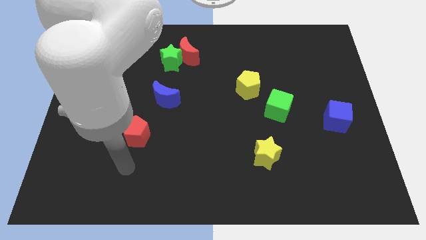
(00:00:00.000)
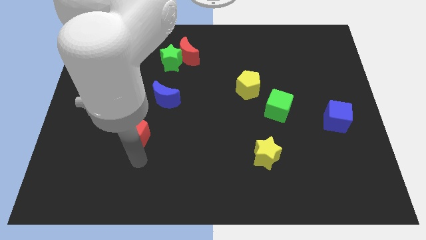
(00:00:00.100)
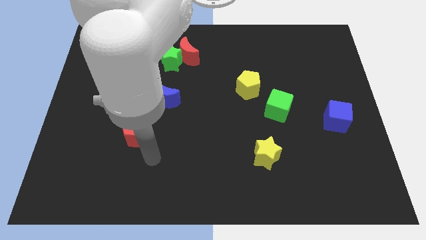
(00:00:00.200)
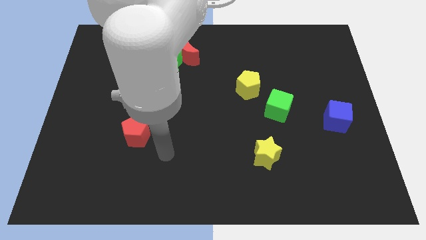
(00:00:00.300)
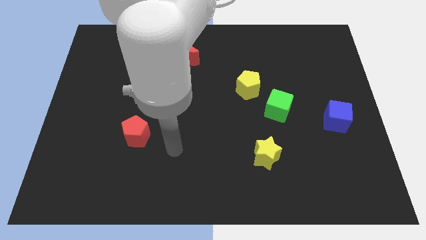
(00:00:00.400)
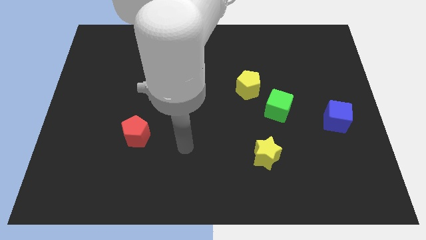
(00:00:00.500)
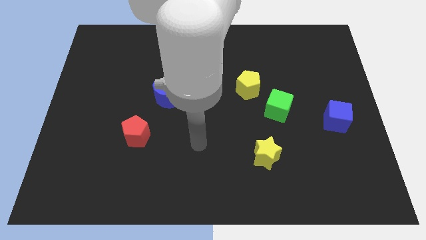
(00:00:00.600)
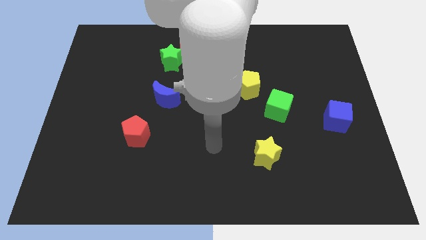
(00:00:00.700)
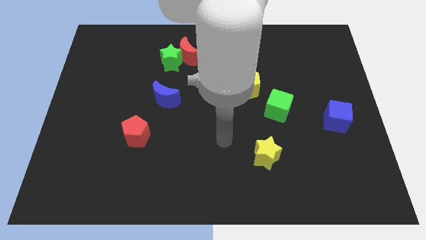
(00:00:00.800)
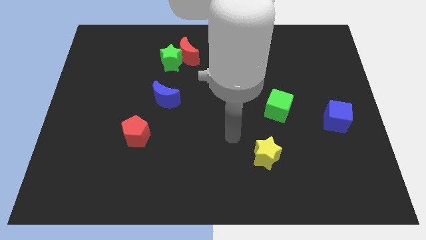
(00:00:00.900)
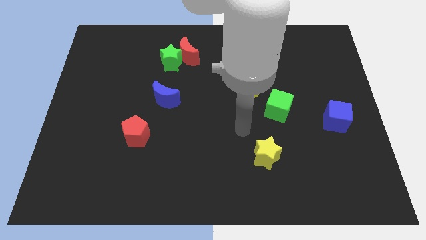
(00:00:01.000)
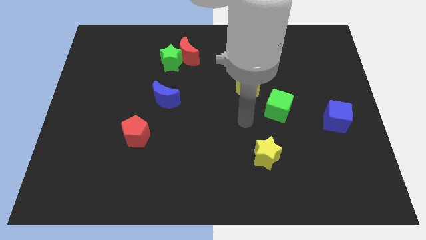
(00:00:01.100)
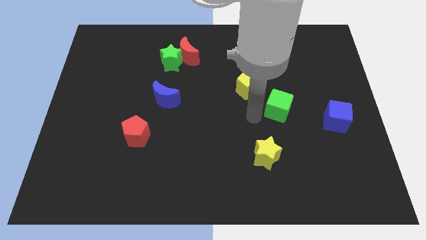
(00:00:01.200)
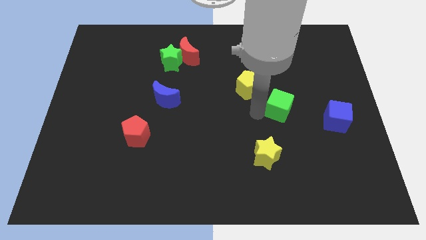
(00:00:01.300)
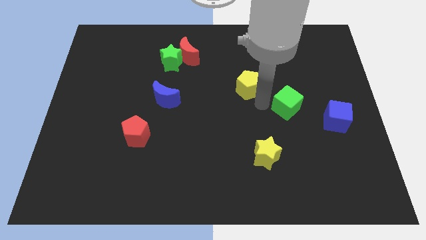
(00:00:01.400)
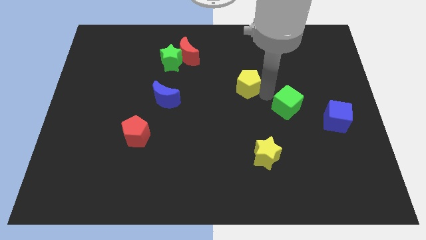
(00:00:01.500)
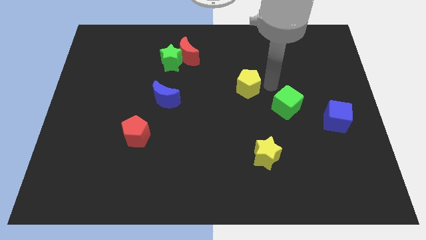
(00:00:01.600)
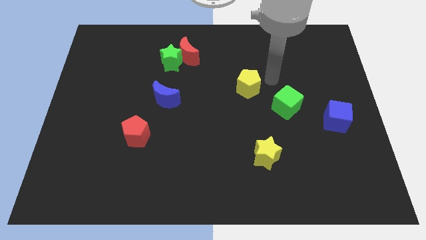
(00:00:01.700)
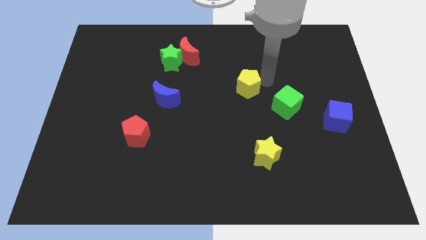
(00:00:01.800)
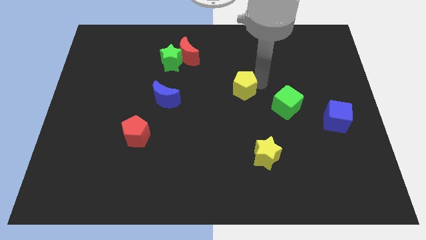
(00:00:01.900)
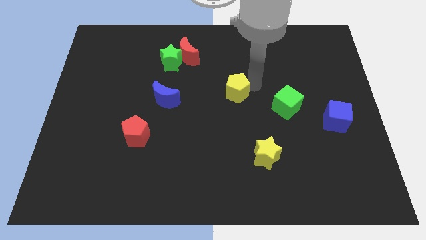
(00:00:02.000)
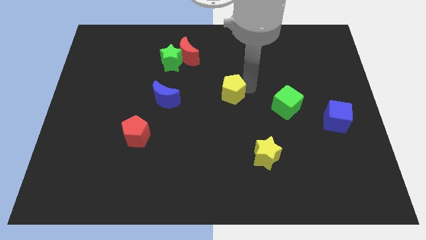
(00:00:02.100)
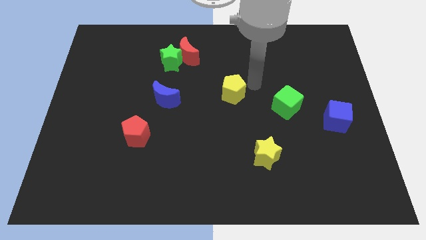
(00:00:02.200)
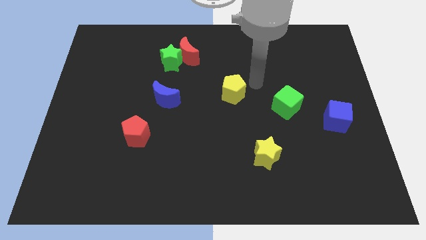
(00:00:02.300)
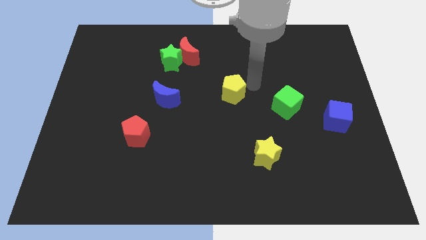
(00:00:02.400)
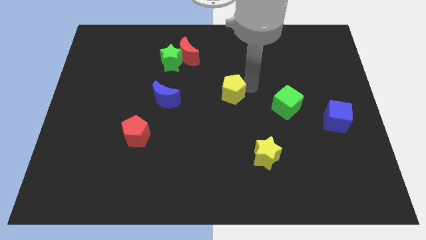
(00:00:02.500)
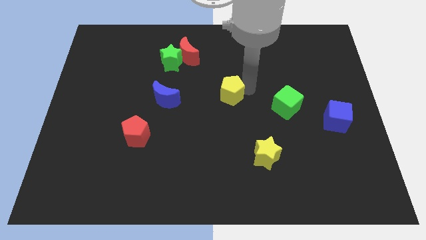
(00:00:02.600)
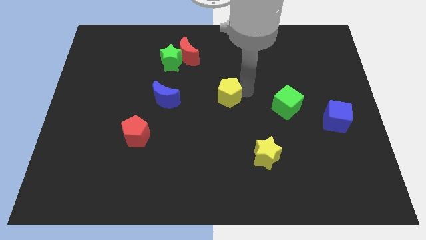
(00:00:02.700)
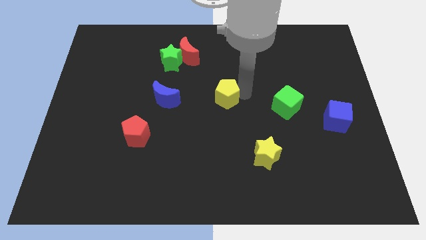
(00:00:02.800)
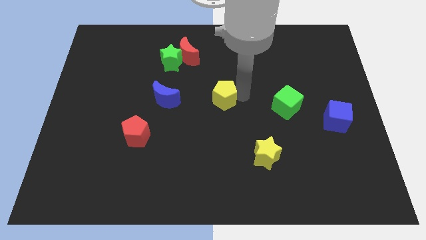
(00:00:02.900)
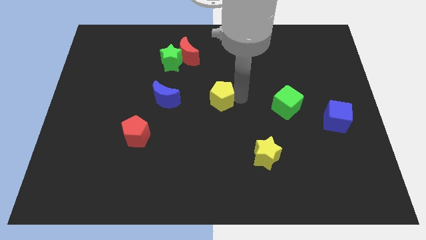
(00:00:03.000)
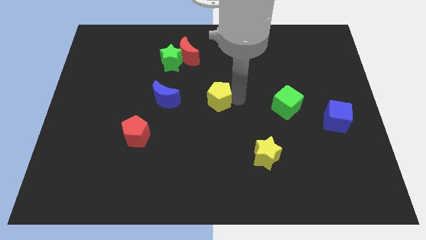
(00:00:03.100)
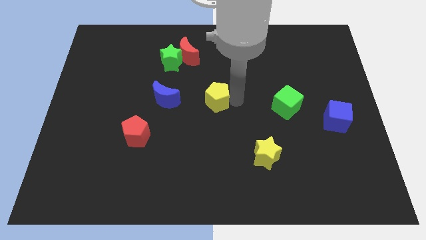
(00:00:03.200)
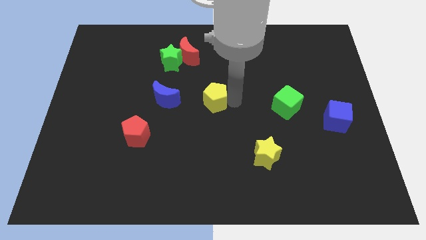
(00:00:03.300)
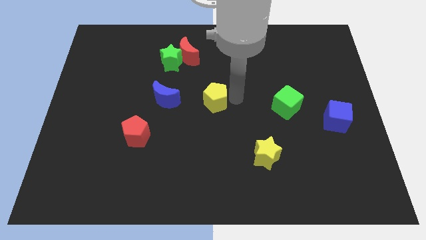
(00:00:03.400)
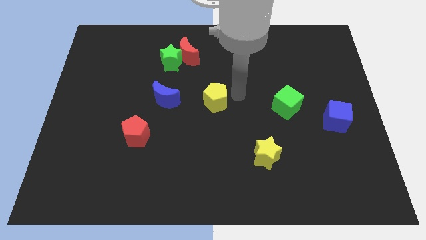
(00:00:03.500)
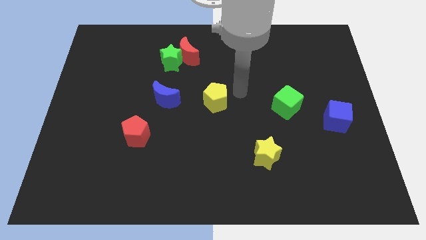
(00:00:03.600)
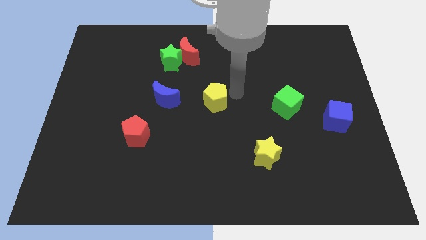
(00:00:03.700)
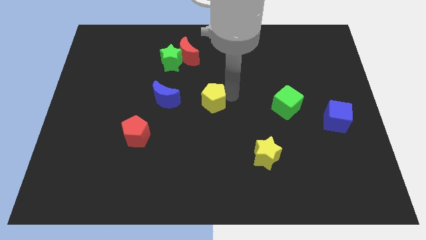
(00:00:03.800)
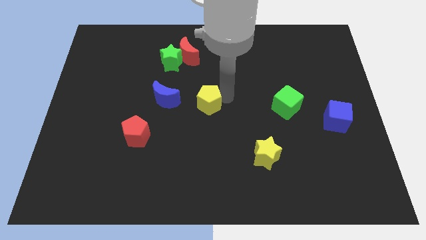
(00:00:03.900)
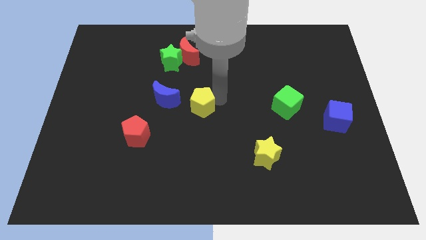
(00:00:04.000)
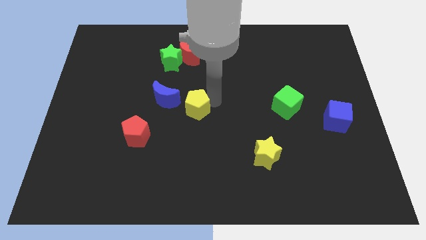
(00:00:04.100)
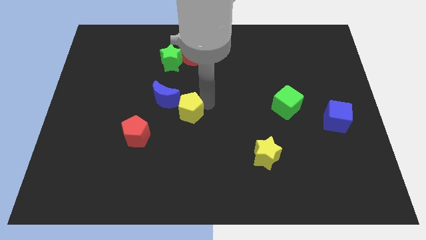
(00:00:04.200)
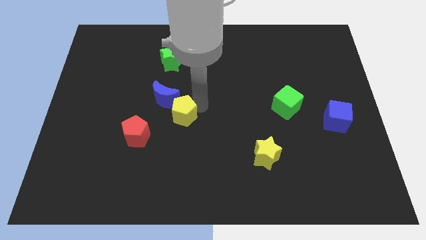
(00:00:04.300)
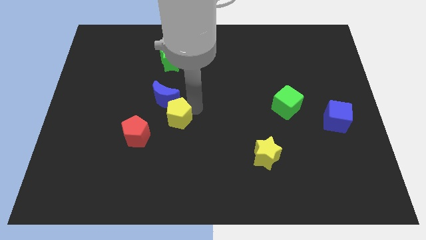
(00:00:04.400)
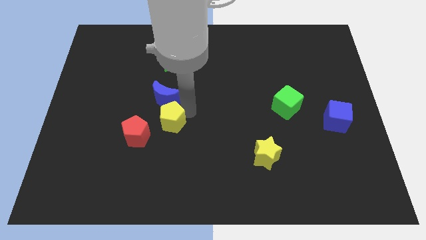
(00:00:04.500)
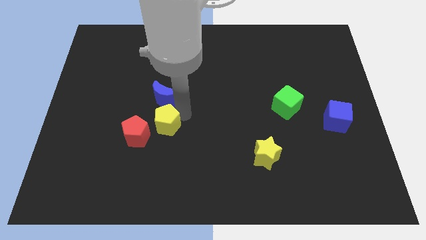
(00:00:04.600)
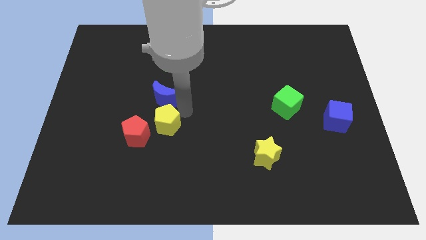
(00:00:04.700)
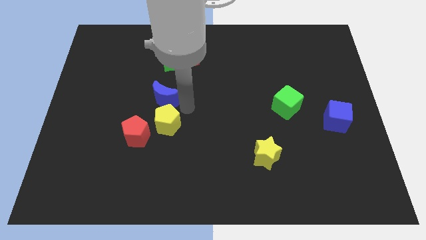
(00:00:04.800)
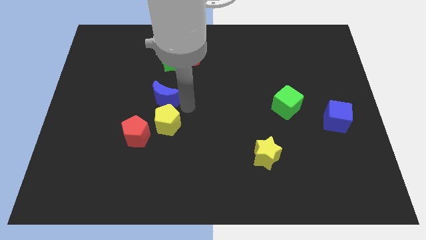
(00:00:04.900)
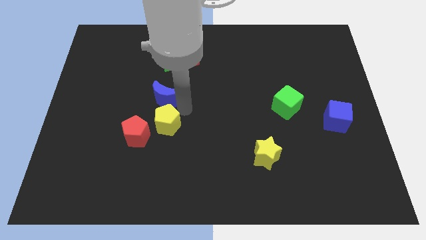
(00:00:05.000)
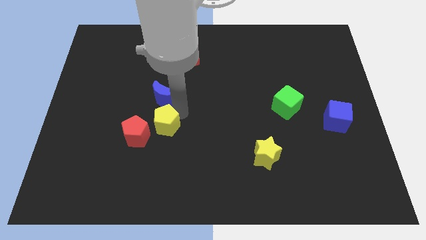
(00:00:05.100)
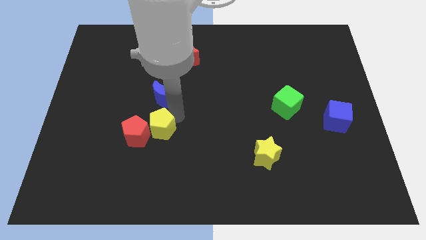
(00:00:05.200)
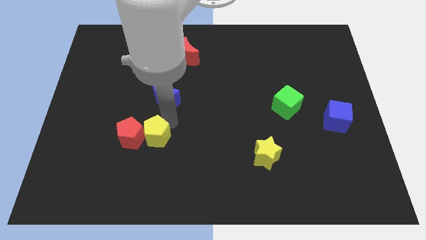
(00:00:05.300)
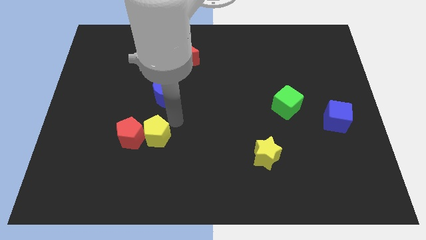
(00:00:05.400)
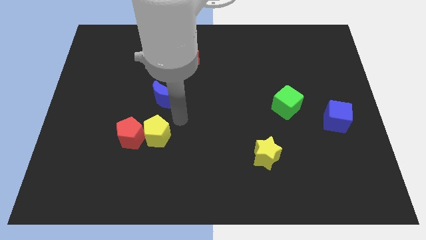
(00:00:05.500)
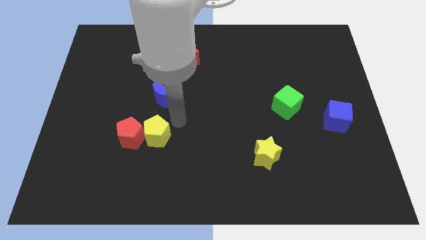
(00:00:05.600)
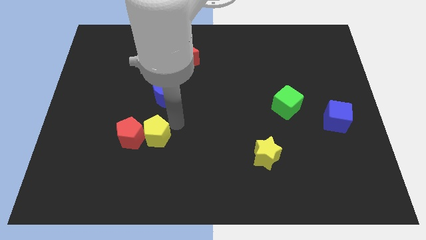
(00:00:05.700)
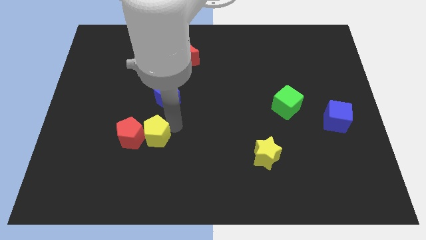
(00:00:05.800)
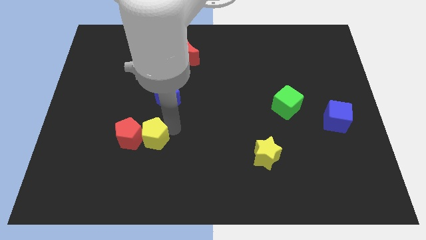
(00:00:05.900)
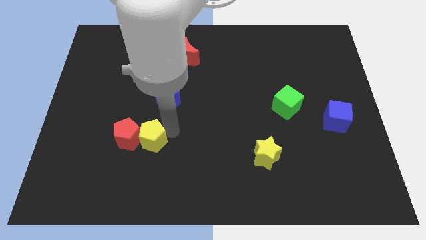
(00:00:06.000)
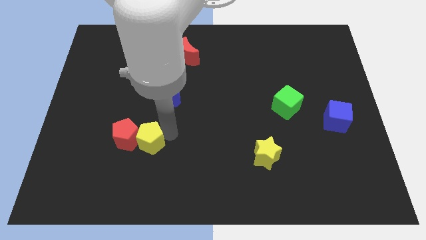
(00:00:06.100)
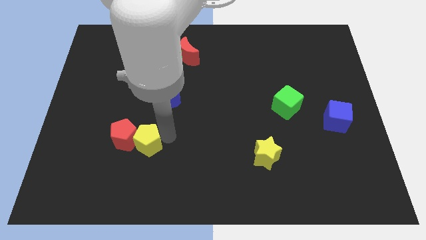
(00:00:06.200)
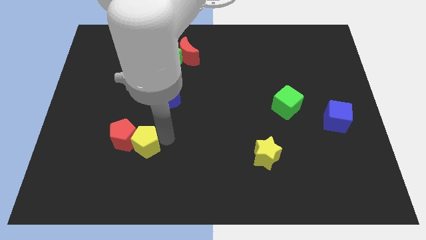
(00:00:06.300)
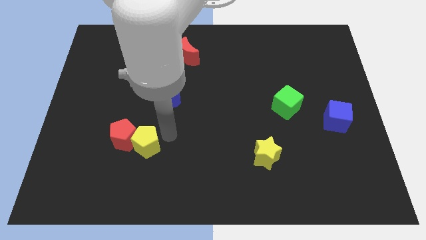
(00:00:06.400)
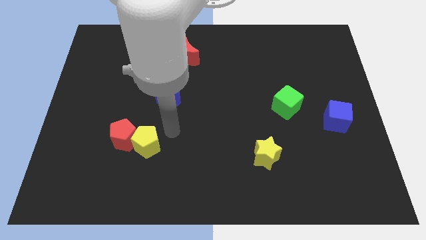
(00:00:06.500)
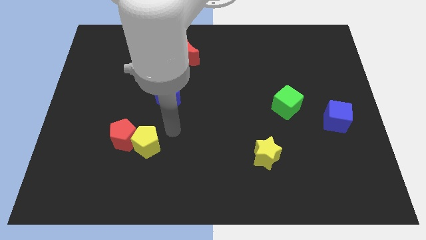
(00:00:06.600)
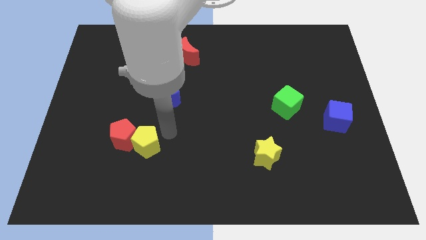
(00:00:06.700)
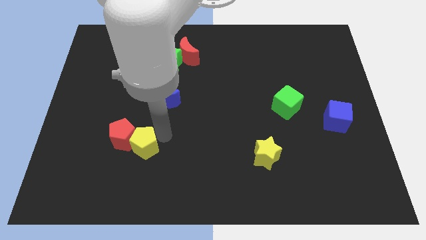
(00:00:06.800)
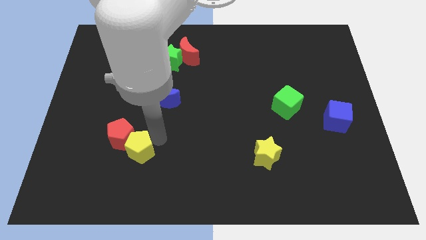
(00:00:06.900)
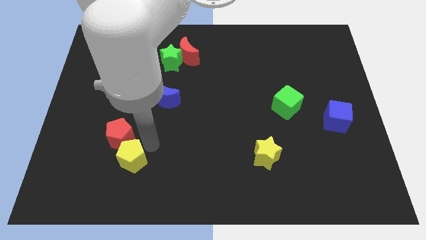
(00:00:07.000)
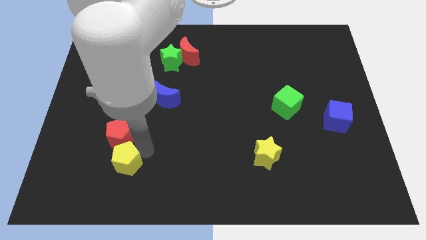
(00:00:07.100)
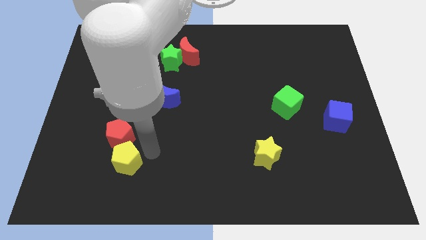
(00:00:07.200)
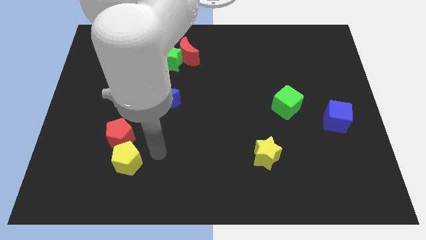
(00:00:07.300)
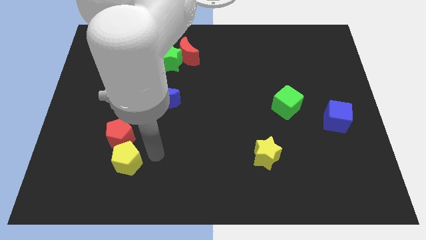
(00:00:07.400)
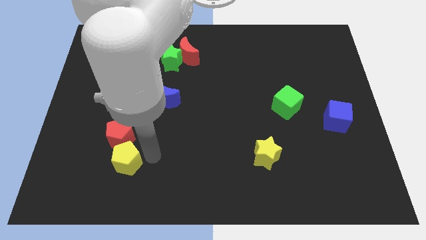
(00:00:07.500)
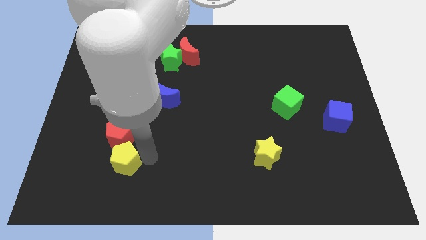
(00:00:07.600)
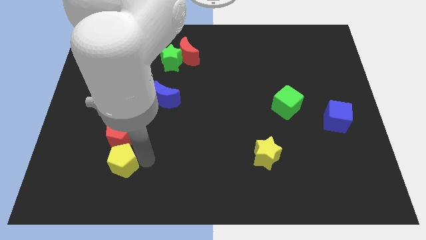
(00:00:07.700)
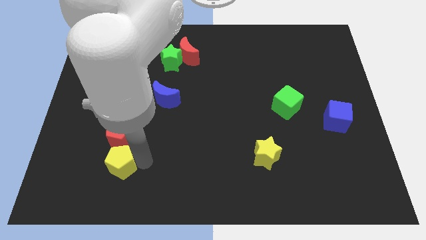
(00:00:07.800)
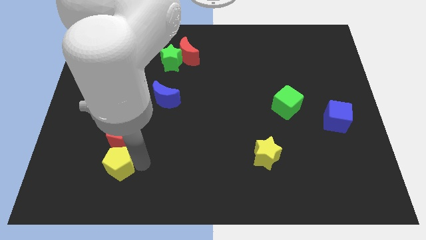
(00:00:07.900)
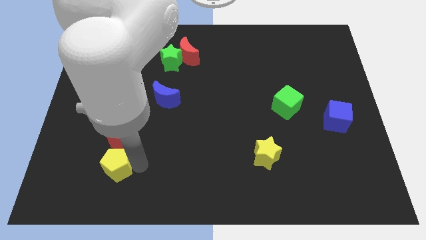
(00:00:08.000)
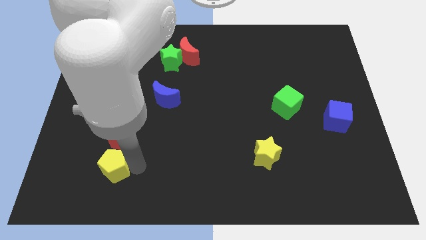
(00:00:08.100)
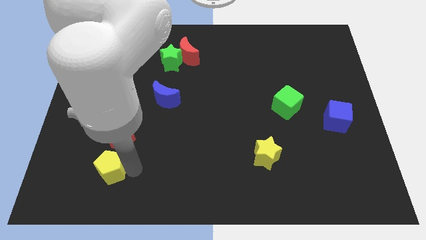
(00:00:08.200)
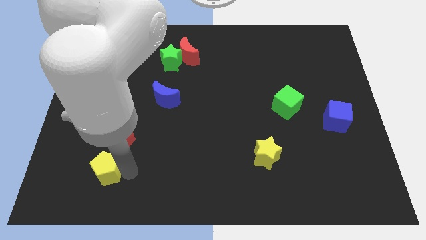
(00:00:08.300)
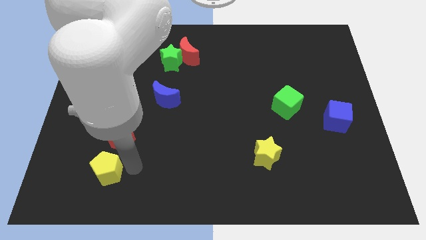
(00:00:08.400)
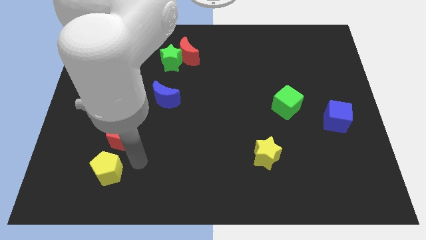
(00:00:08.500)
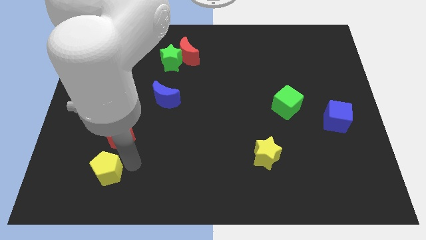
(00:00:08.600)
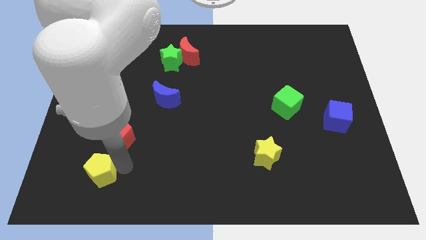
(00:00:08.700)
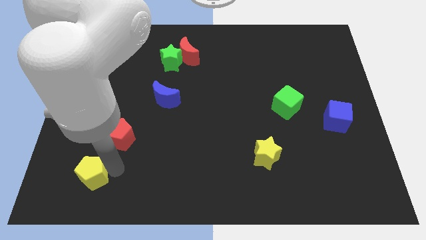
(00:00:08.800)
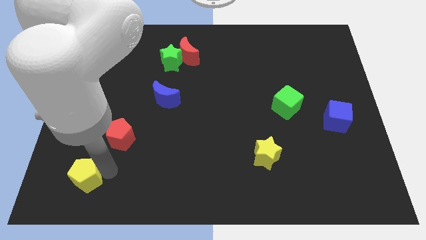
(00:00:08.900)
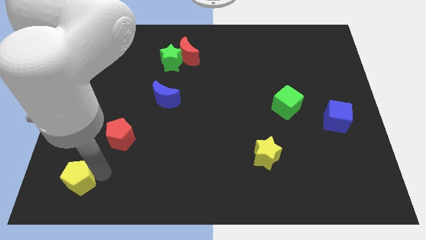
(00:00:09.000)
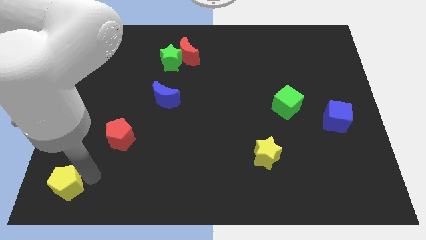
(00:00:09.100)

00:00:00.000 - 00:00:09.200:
push the yellow pentagon to the bottom left corner
